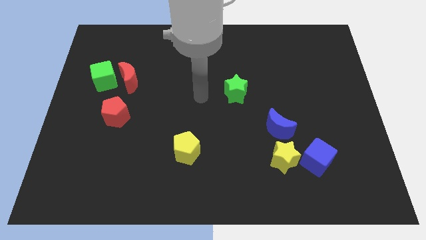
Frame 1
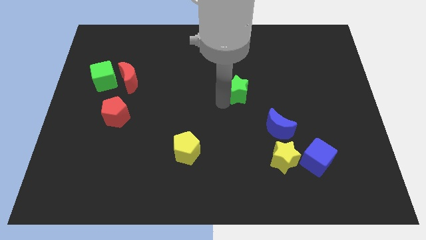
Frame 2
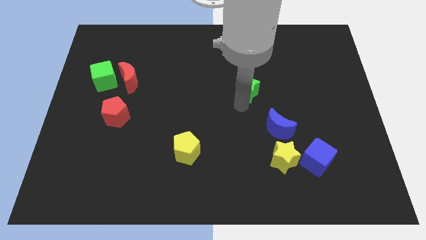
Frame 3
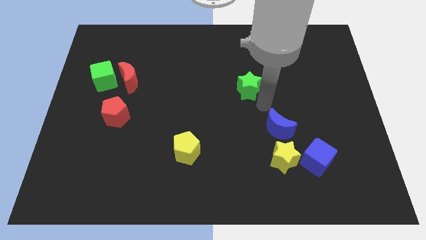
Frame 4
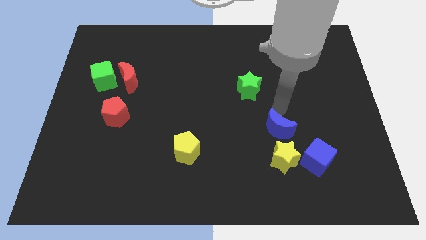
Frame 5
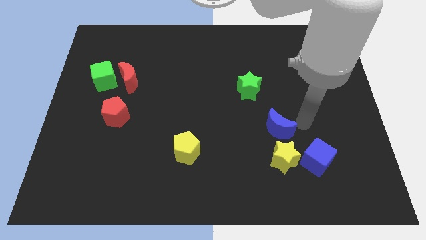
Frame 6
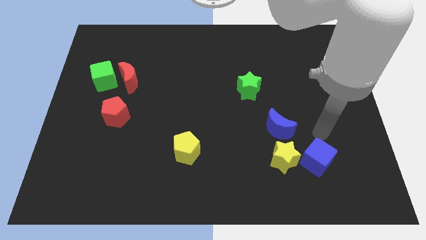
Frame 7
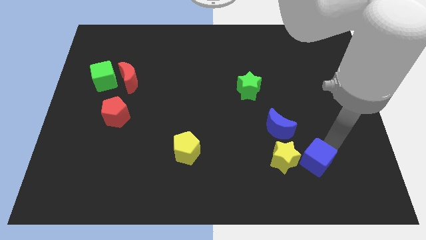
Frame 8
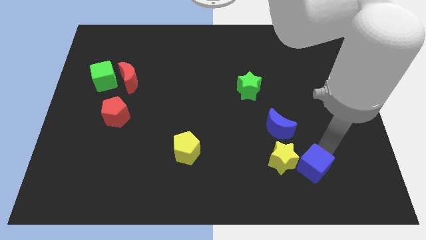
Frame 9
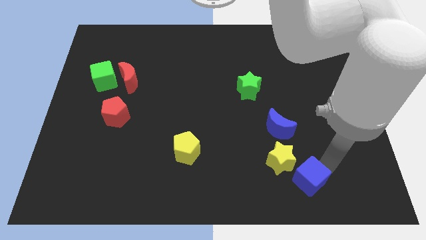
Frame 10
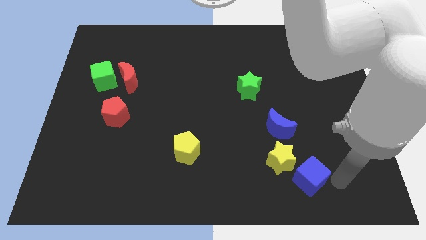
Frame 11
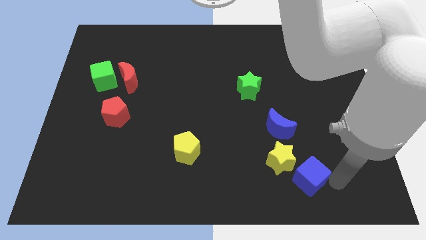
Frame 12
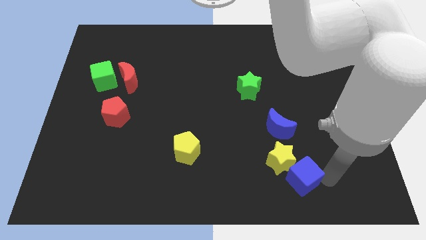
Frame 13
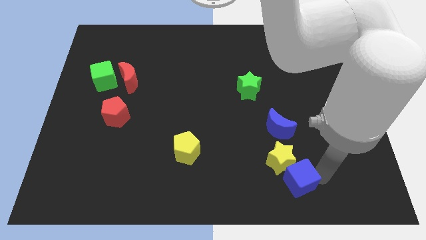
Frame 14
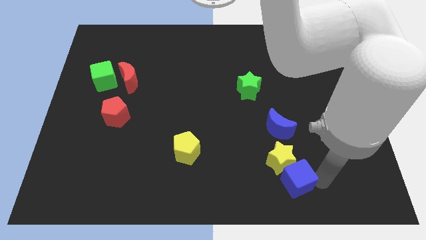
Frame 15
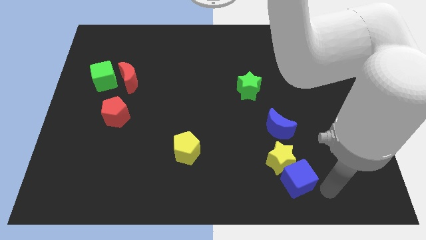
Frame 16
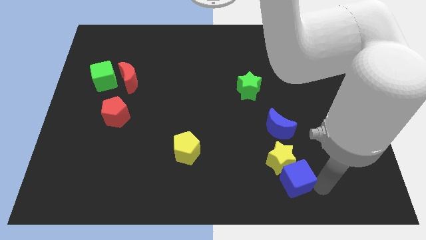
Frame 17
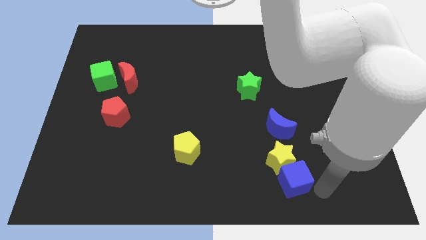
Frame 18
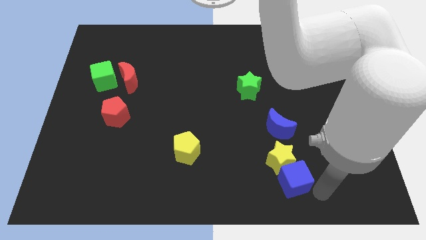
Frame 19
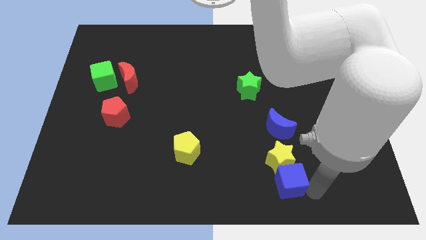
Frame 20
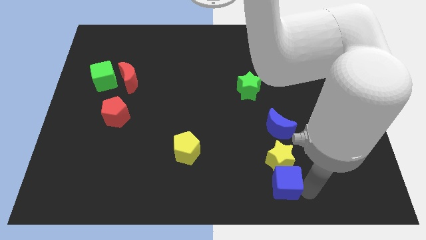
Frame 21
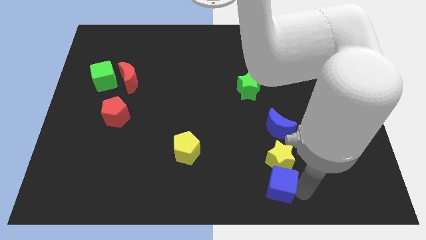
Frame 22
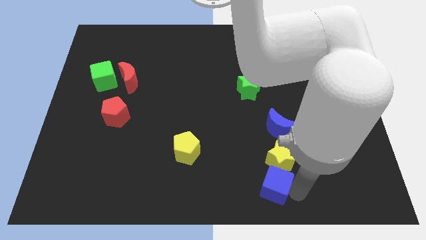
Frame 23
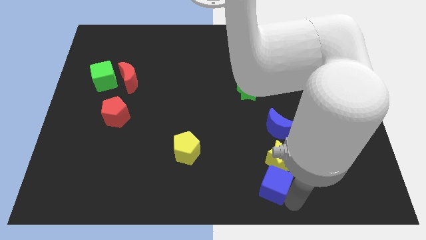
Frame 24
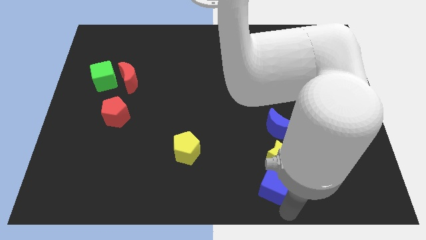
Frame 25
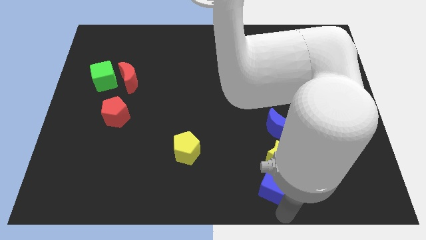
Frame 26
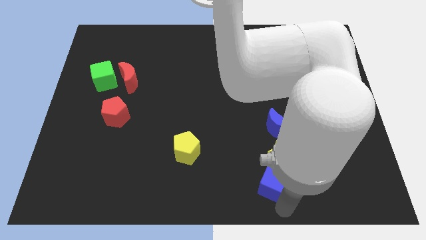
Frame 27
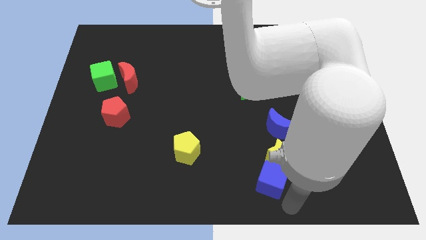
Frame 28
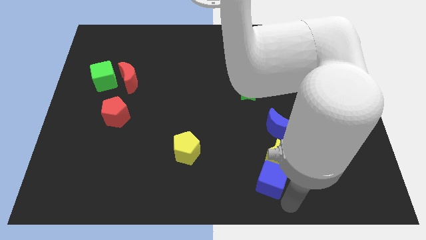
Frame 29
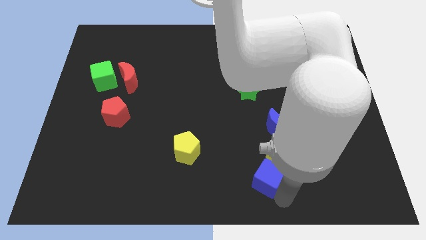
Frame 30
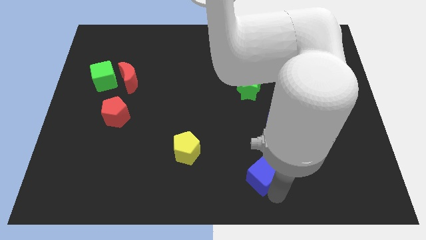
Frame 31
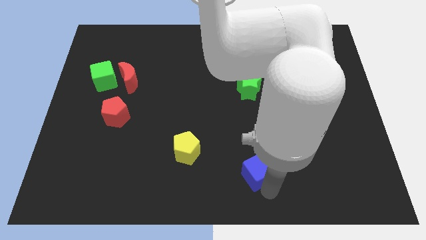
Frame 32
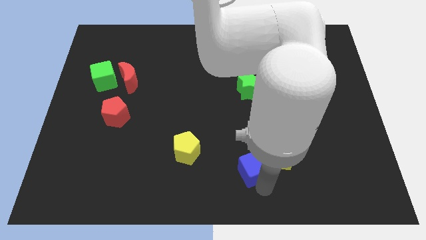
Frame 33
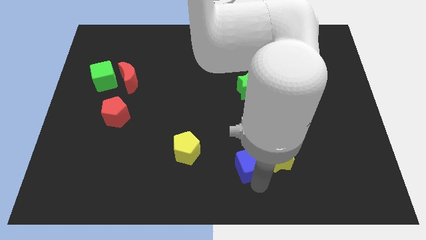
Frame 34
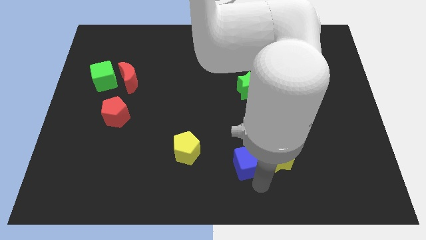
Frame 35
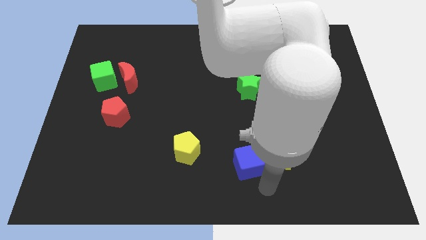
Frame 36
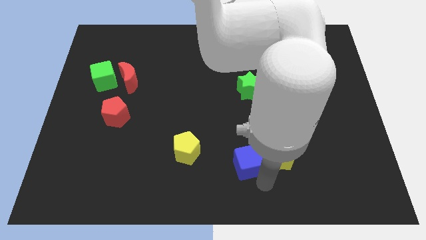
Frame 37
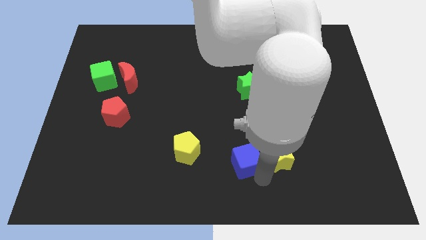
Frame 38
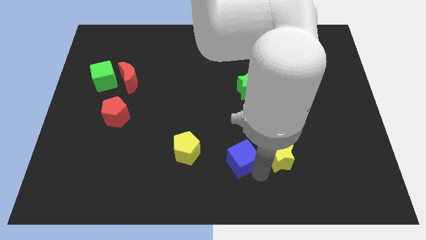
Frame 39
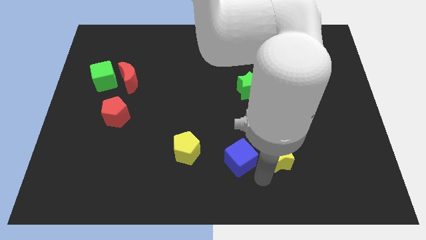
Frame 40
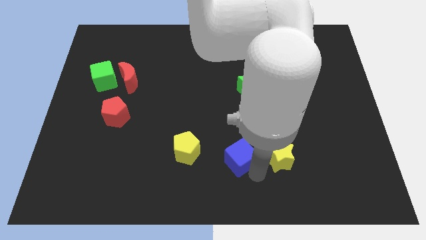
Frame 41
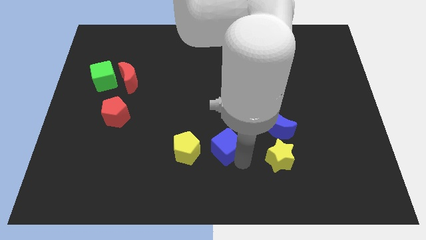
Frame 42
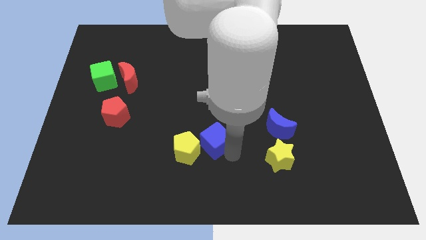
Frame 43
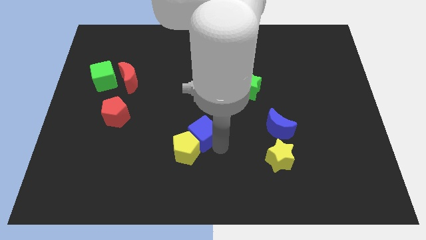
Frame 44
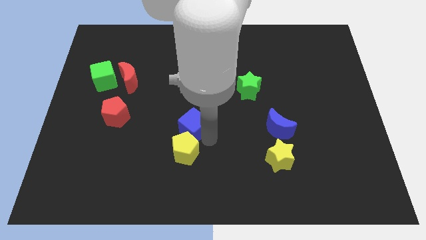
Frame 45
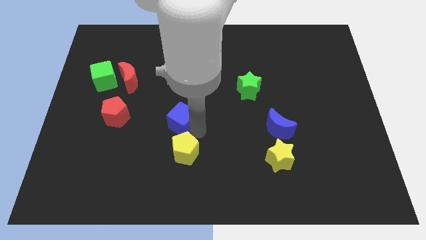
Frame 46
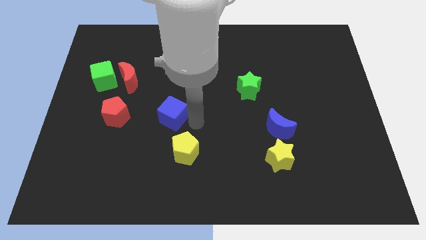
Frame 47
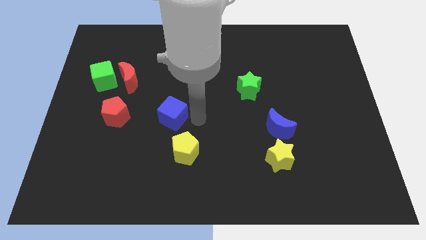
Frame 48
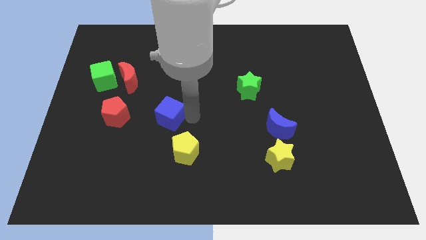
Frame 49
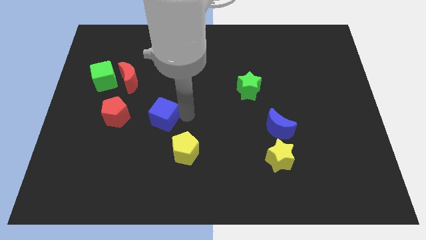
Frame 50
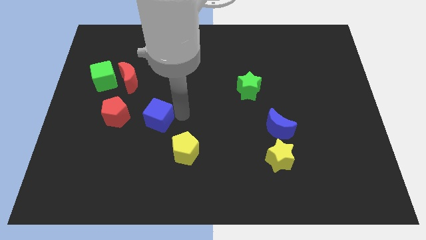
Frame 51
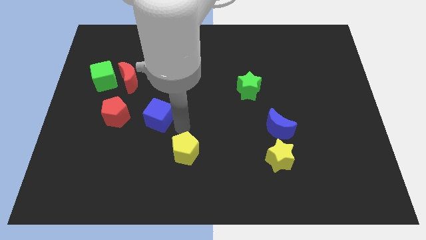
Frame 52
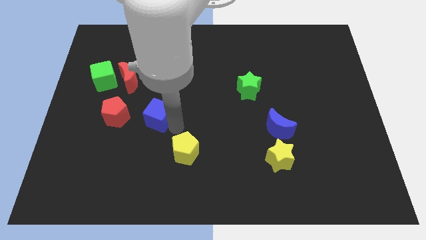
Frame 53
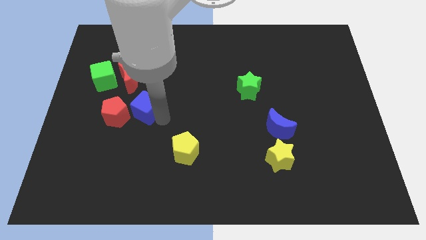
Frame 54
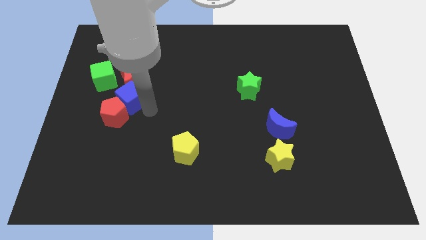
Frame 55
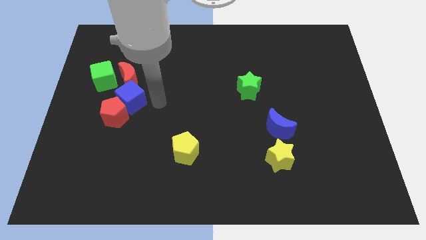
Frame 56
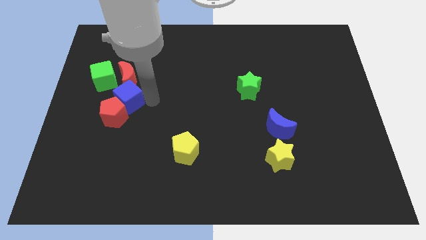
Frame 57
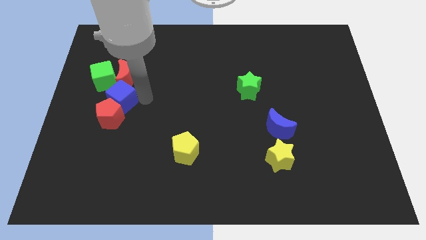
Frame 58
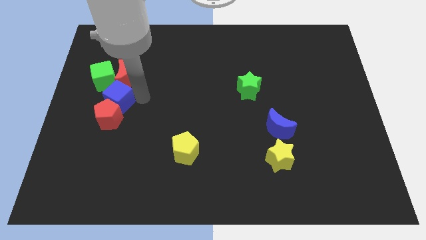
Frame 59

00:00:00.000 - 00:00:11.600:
slide the blue cube to the top left of the red pentagon

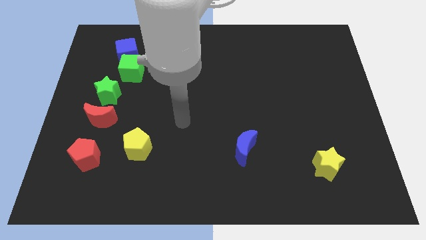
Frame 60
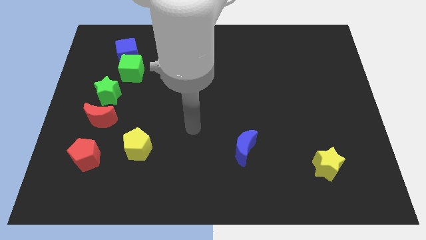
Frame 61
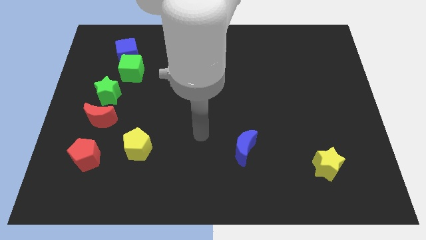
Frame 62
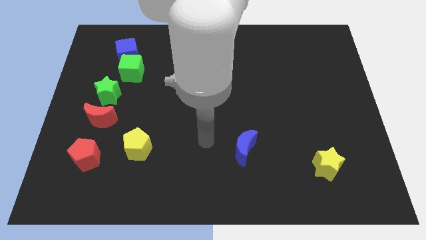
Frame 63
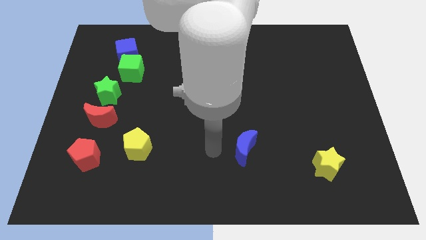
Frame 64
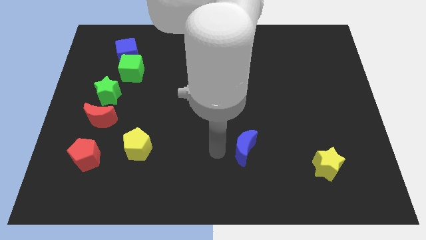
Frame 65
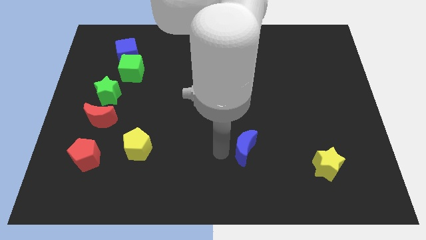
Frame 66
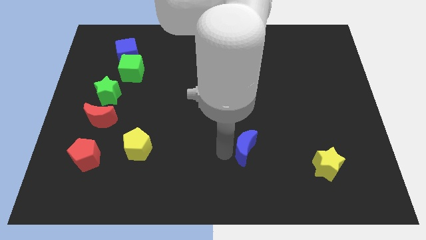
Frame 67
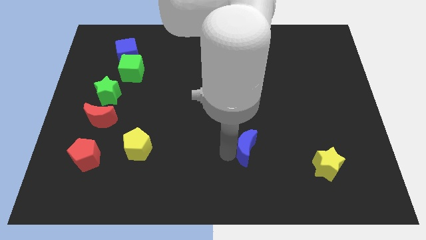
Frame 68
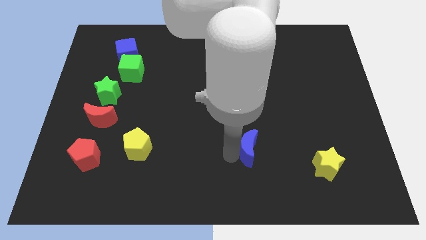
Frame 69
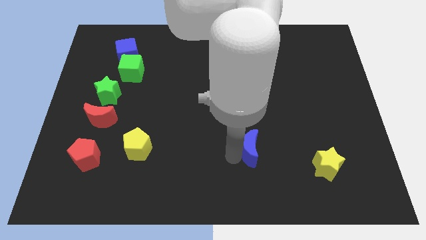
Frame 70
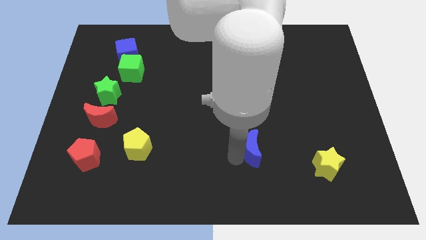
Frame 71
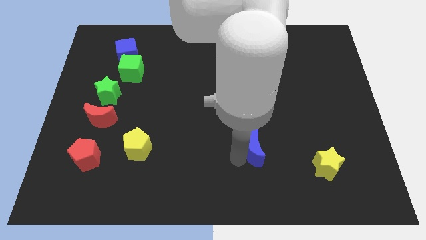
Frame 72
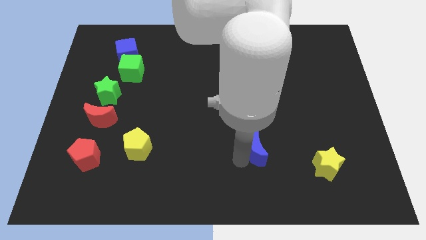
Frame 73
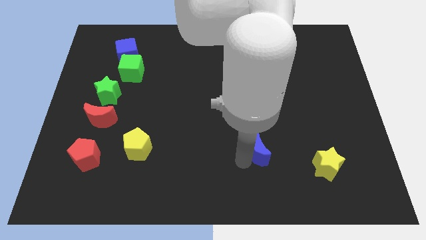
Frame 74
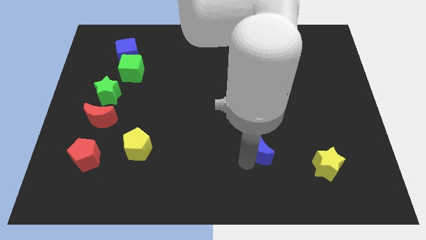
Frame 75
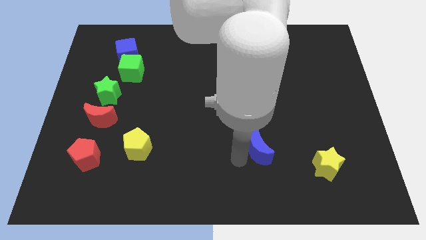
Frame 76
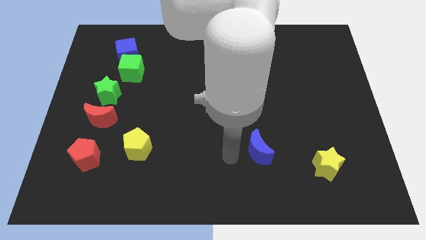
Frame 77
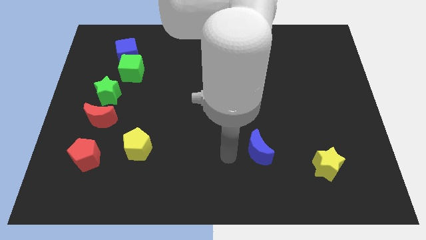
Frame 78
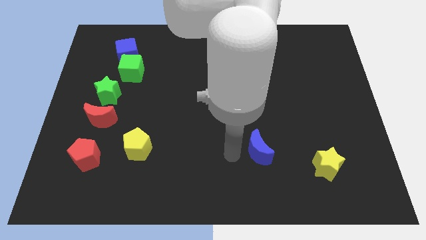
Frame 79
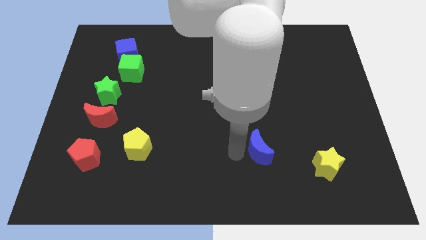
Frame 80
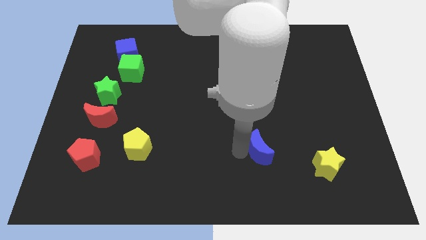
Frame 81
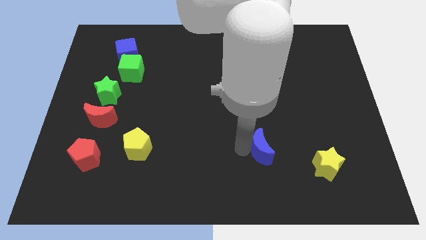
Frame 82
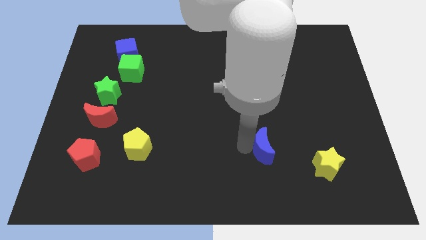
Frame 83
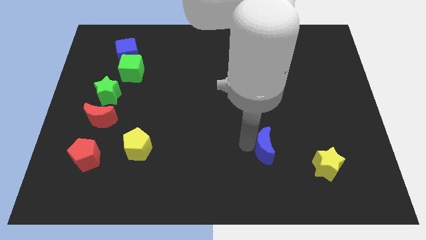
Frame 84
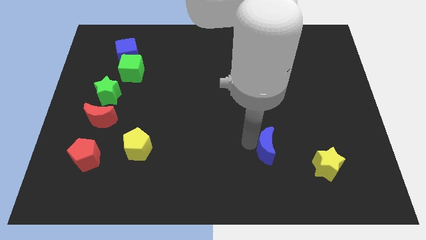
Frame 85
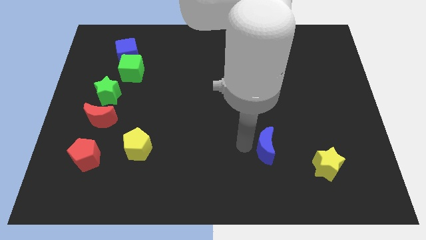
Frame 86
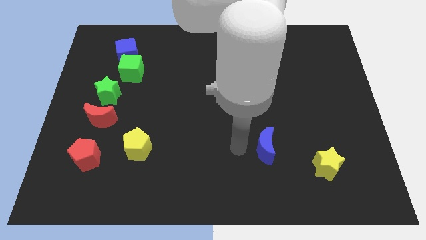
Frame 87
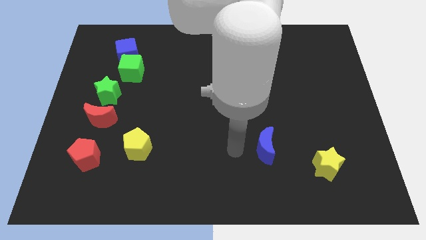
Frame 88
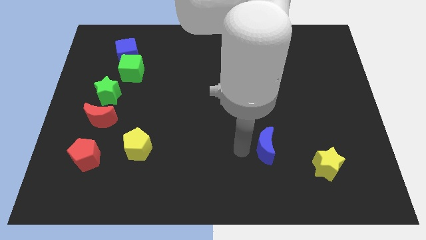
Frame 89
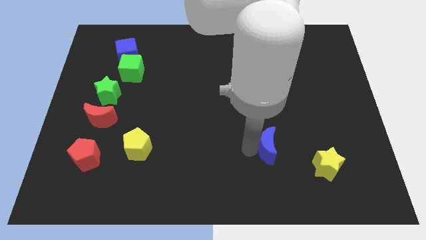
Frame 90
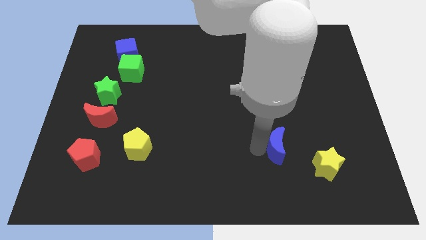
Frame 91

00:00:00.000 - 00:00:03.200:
push the blue moon to the top left of the yellow star
